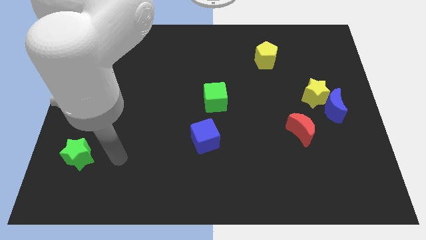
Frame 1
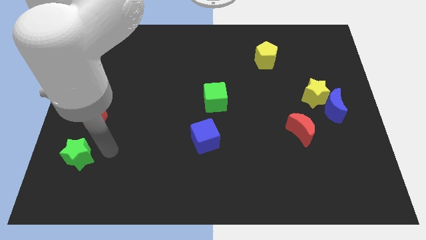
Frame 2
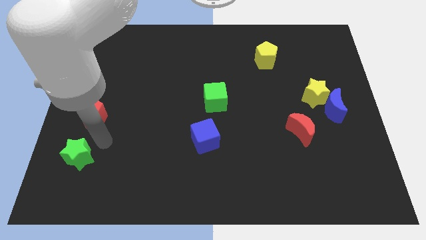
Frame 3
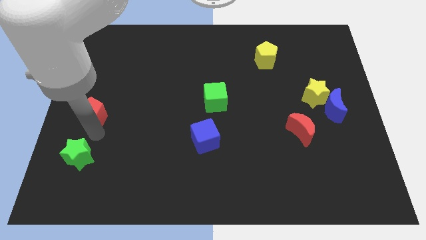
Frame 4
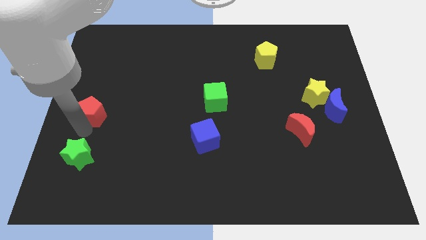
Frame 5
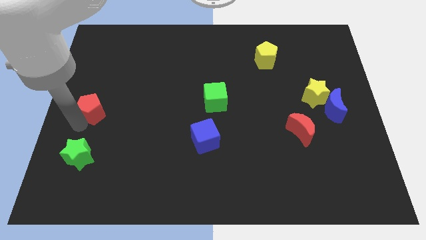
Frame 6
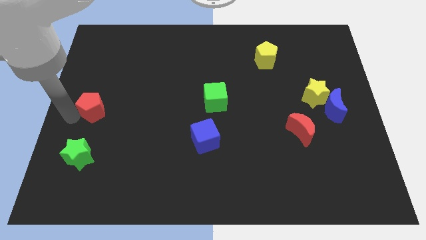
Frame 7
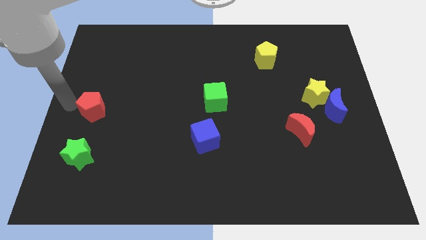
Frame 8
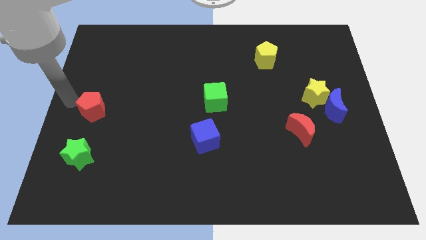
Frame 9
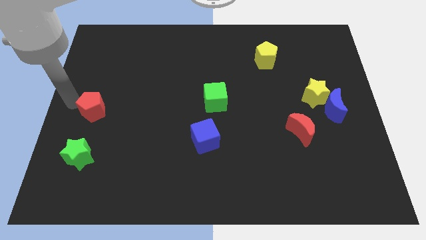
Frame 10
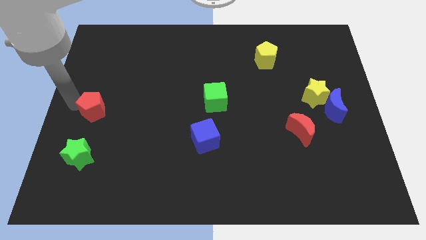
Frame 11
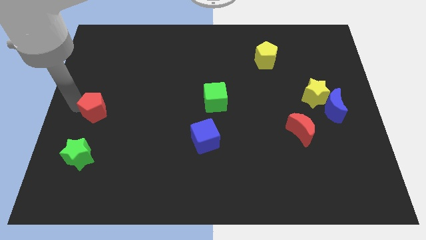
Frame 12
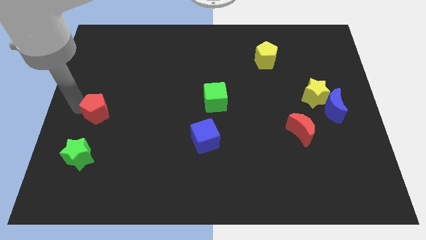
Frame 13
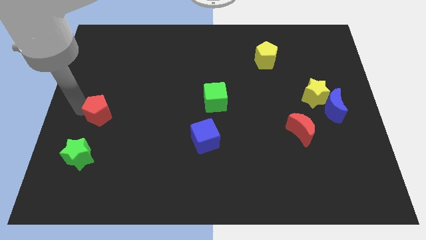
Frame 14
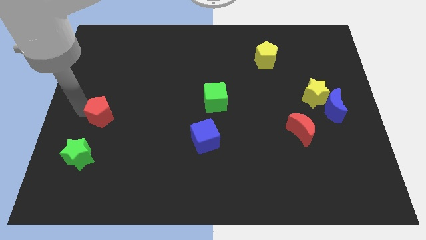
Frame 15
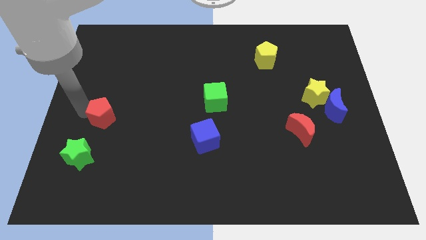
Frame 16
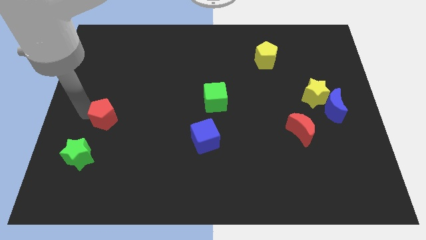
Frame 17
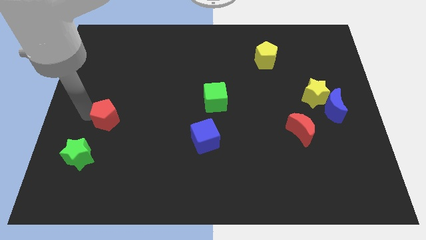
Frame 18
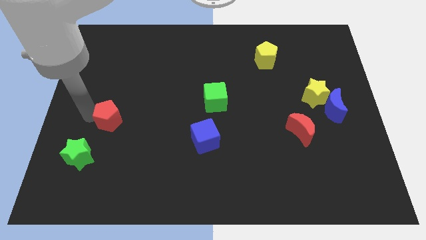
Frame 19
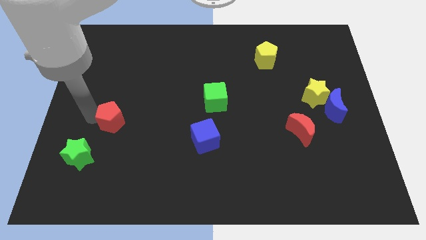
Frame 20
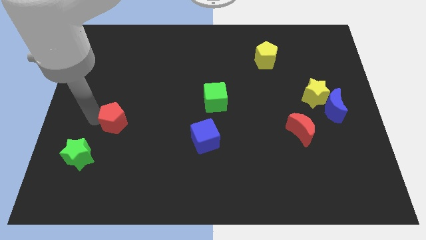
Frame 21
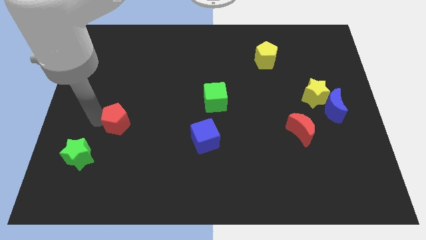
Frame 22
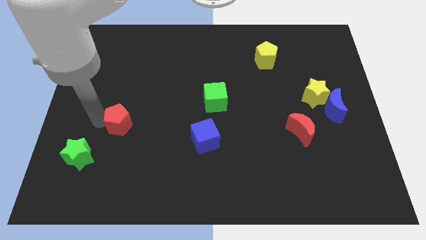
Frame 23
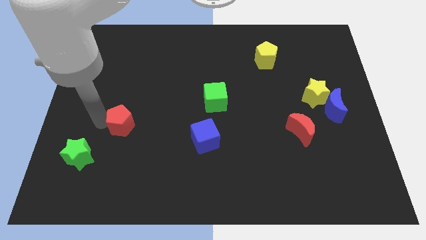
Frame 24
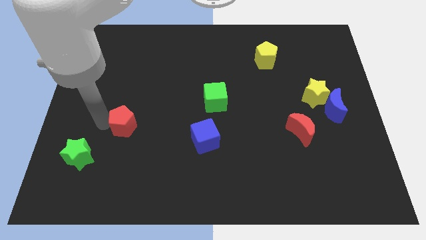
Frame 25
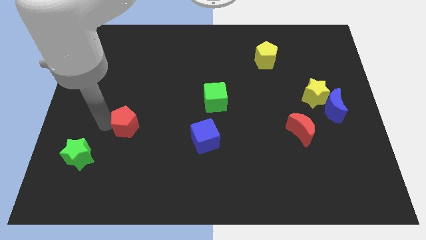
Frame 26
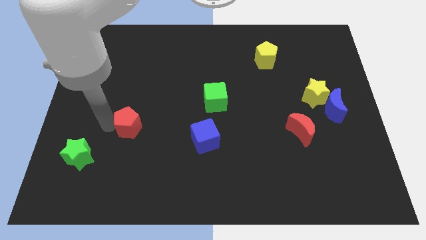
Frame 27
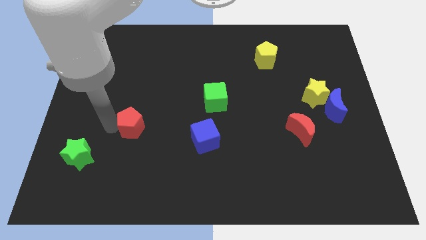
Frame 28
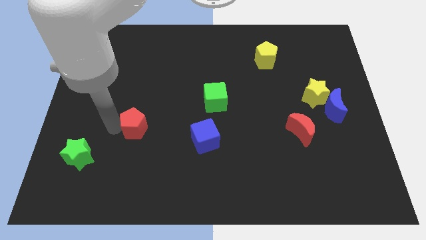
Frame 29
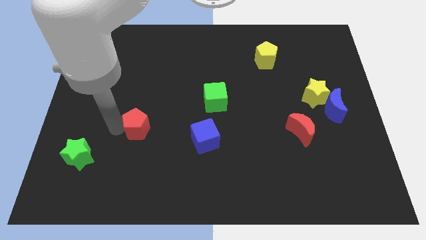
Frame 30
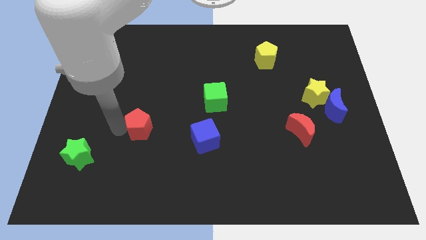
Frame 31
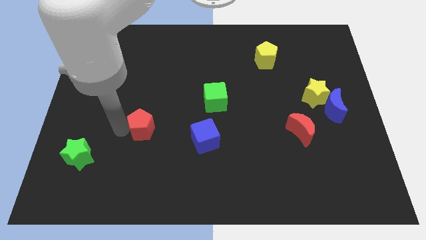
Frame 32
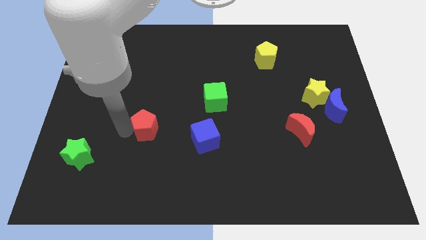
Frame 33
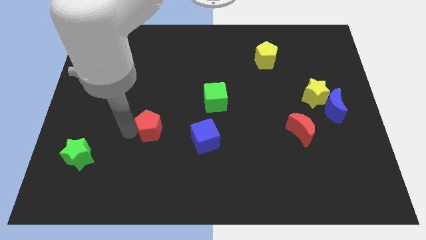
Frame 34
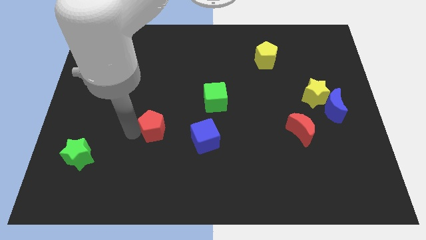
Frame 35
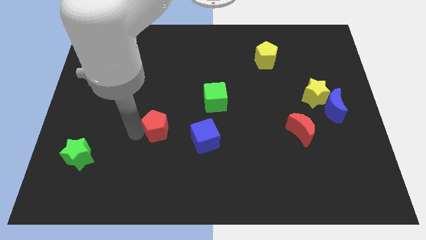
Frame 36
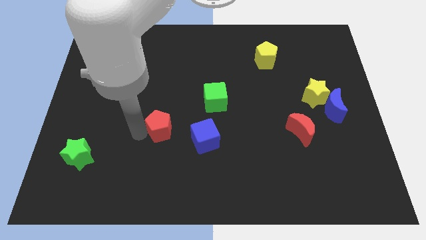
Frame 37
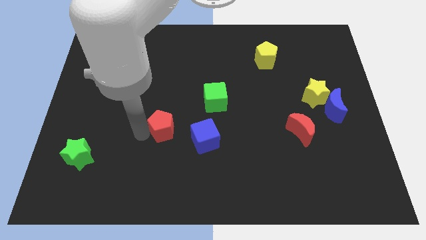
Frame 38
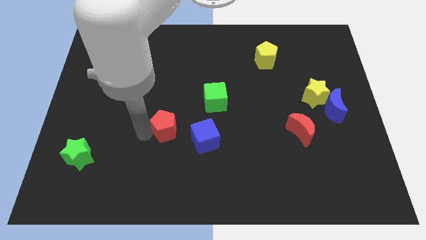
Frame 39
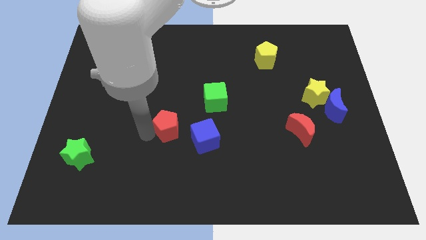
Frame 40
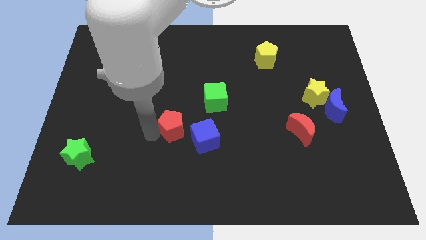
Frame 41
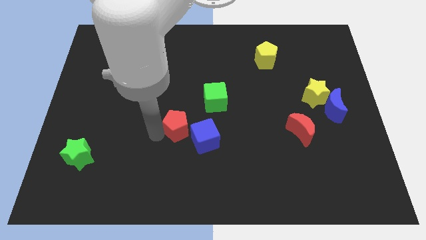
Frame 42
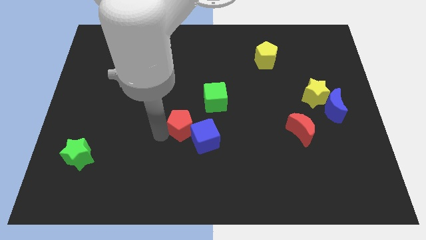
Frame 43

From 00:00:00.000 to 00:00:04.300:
move the red pentagon right

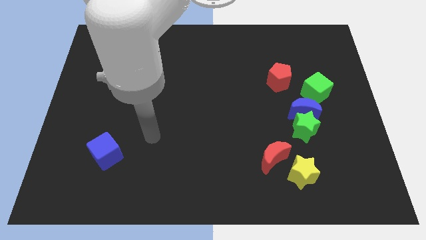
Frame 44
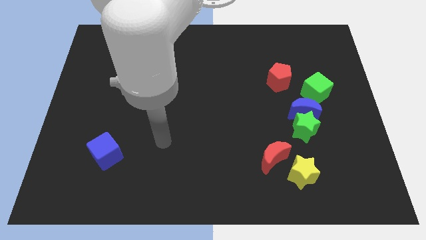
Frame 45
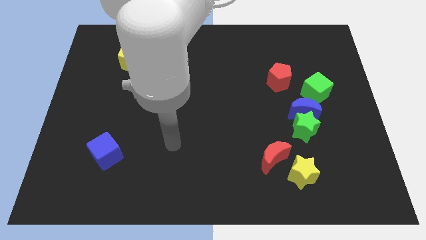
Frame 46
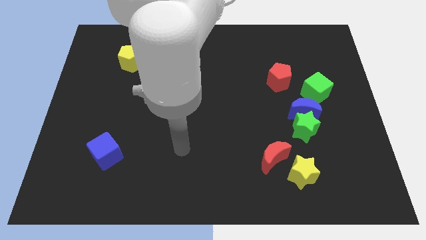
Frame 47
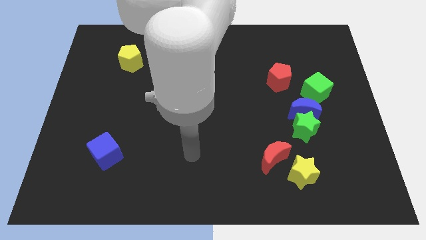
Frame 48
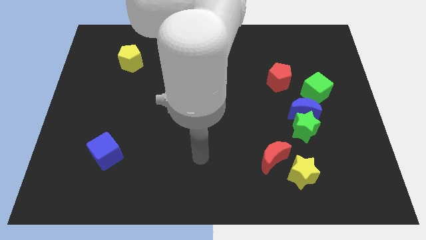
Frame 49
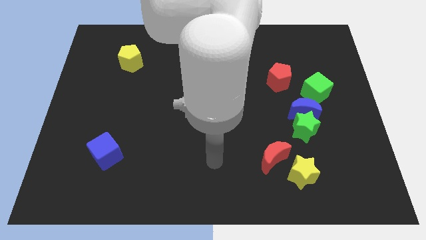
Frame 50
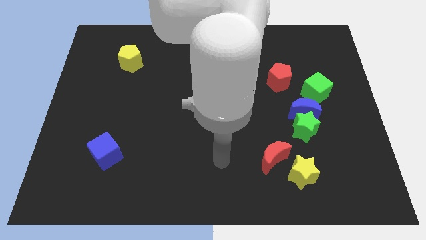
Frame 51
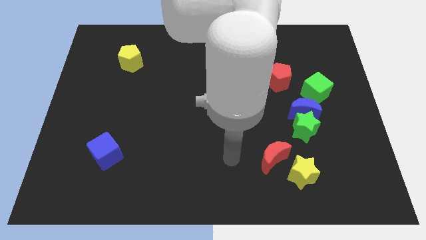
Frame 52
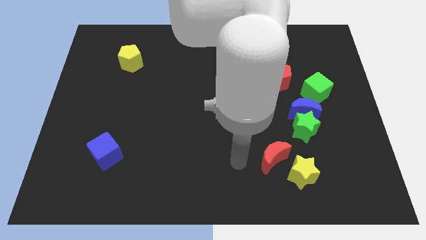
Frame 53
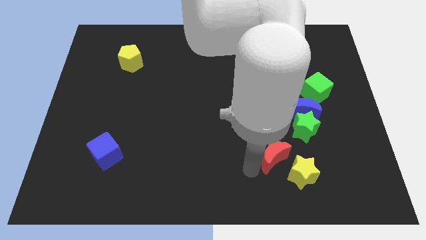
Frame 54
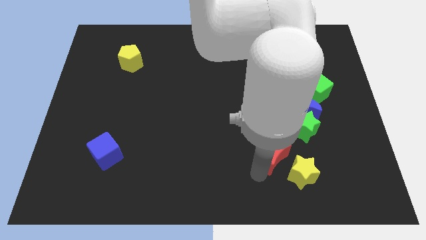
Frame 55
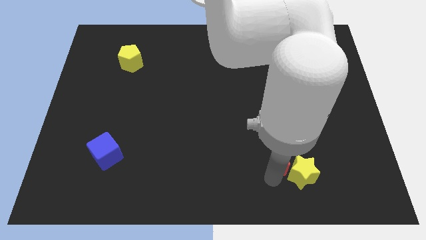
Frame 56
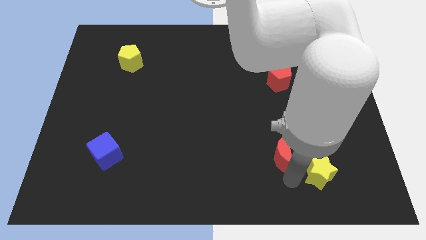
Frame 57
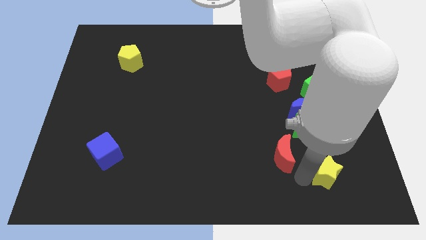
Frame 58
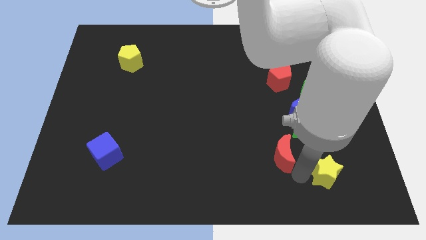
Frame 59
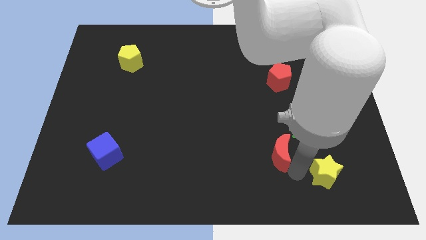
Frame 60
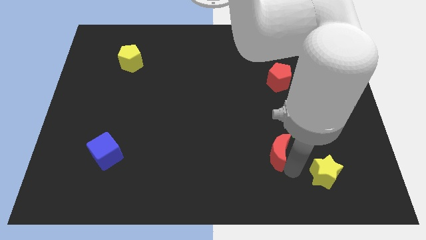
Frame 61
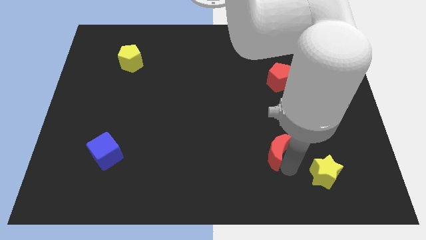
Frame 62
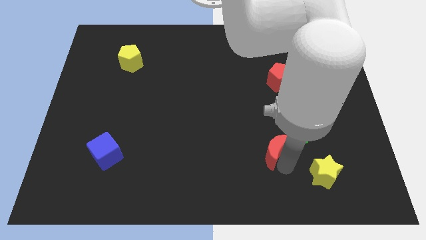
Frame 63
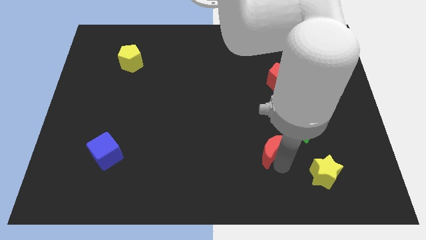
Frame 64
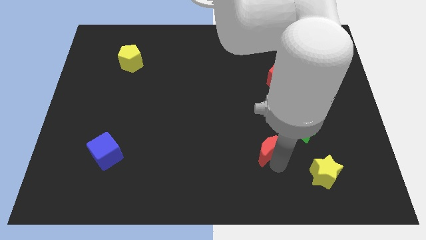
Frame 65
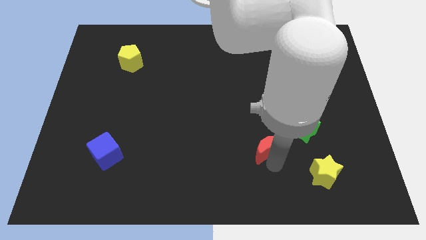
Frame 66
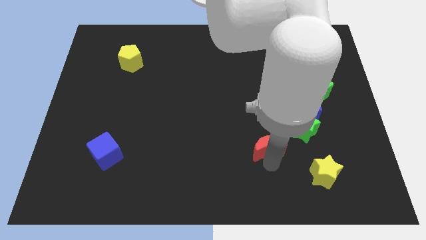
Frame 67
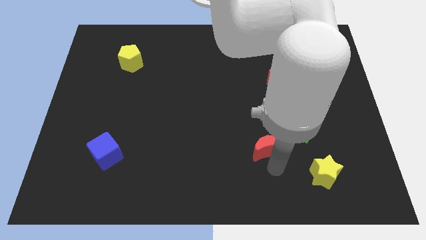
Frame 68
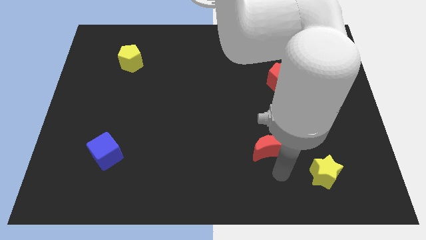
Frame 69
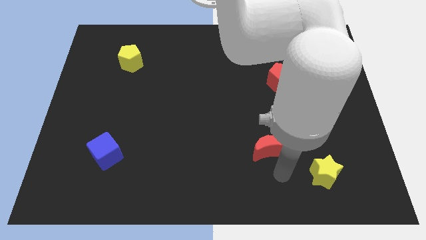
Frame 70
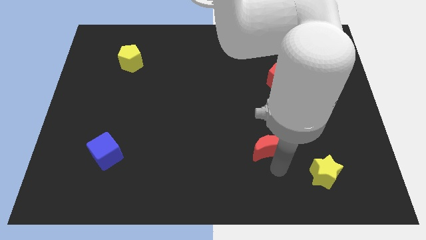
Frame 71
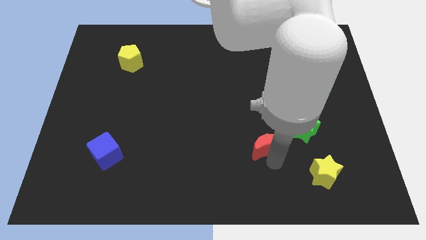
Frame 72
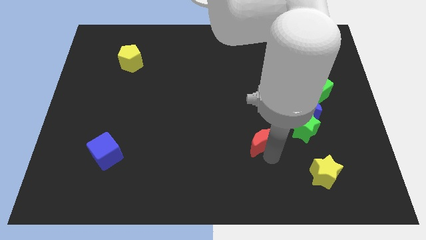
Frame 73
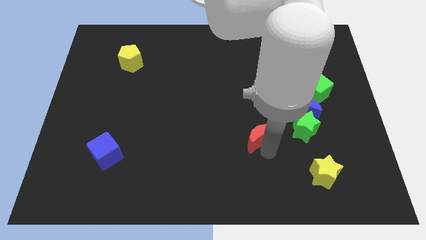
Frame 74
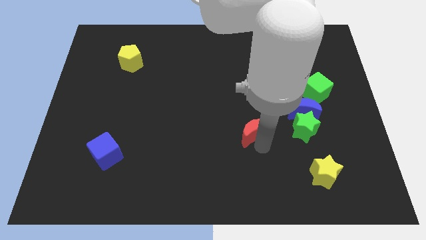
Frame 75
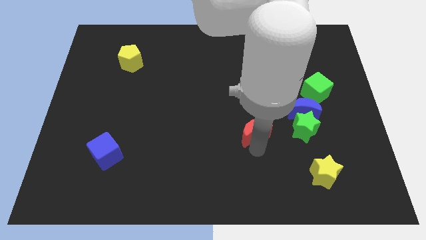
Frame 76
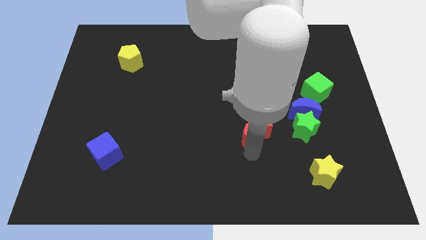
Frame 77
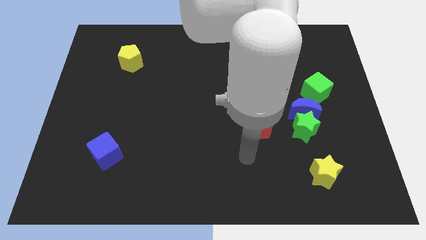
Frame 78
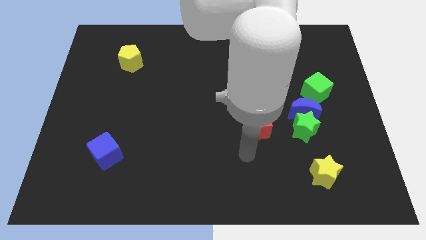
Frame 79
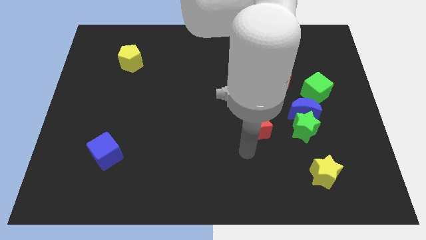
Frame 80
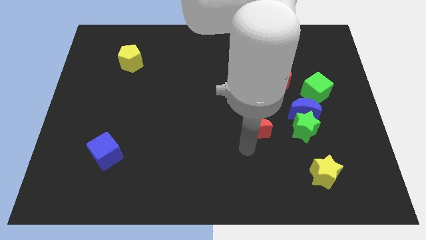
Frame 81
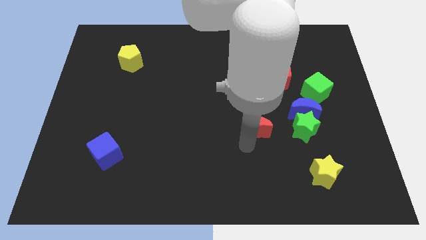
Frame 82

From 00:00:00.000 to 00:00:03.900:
slightly push the red moon upwards
